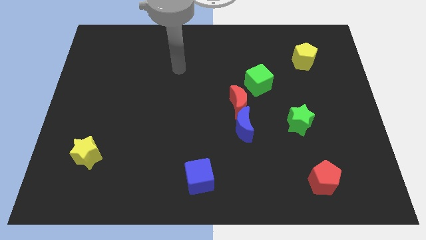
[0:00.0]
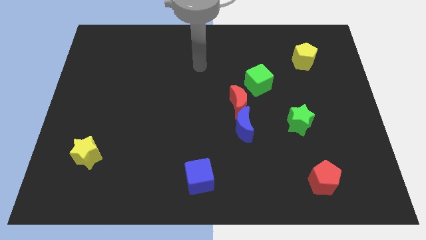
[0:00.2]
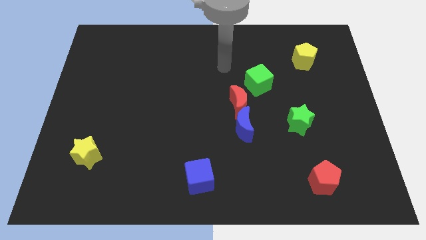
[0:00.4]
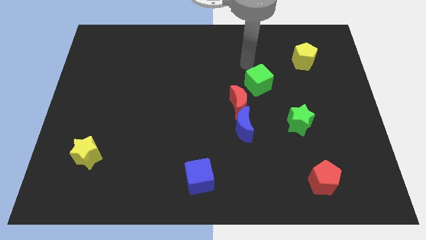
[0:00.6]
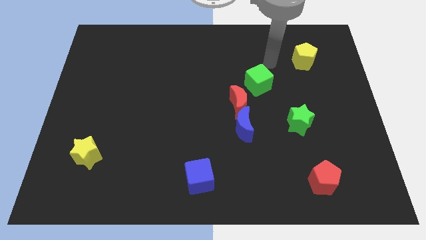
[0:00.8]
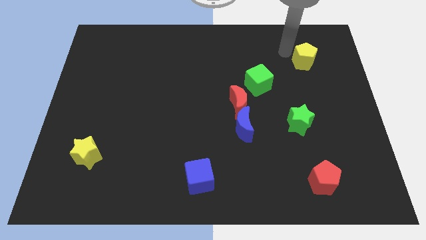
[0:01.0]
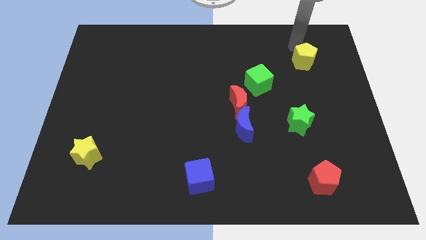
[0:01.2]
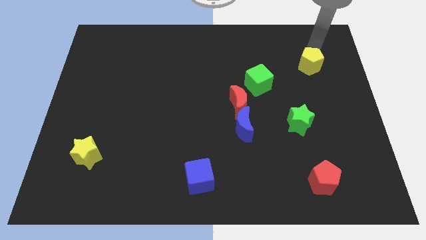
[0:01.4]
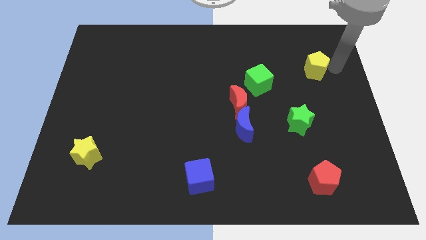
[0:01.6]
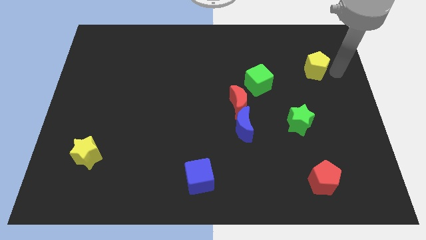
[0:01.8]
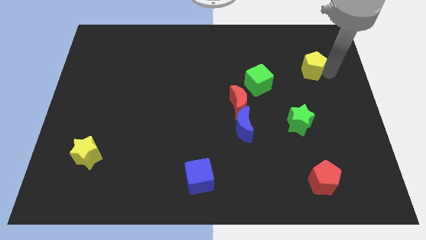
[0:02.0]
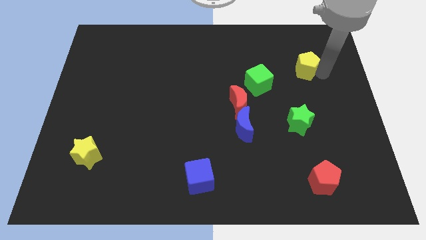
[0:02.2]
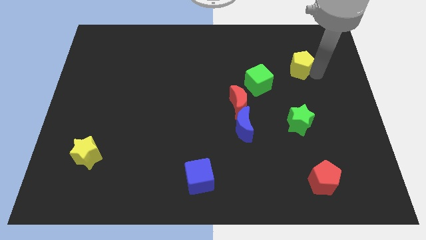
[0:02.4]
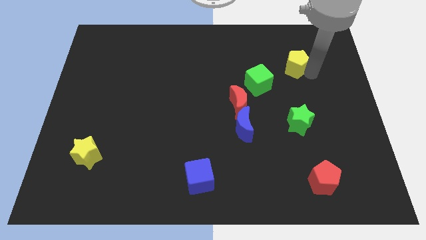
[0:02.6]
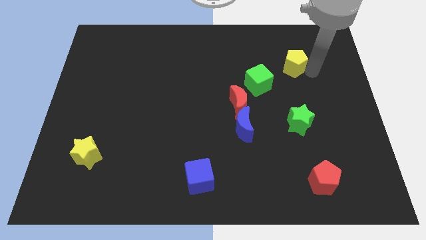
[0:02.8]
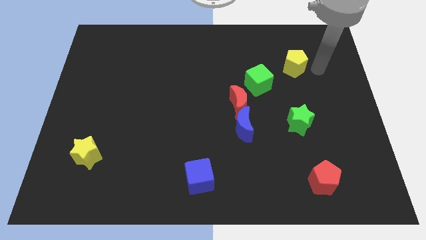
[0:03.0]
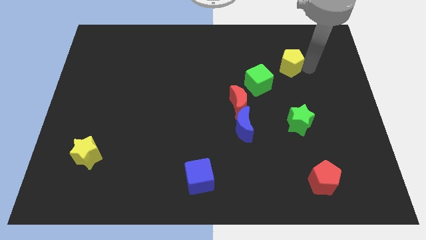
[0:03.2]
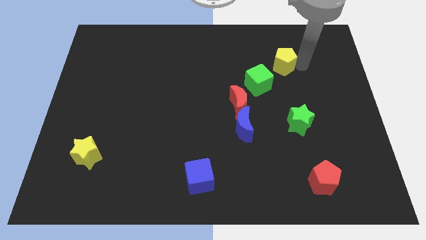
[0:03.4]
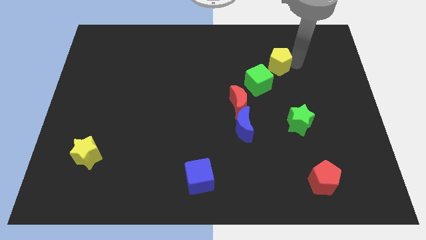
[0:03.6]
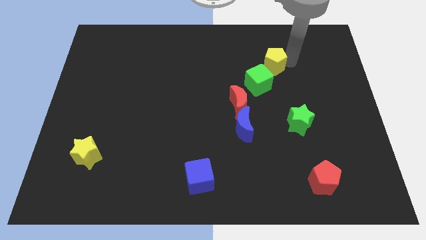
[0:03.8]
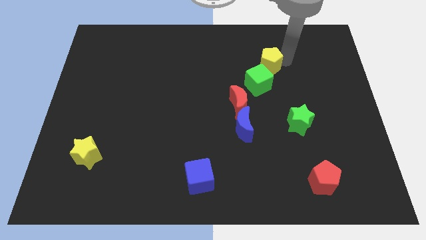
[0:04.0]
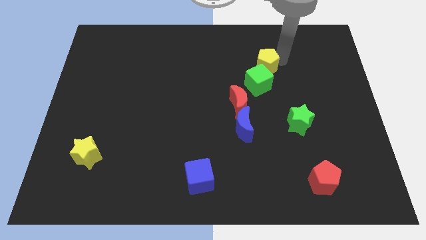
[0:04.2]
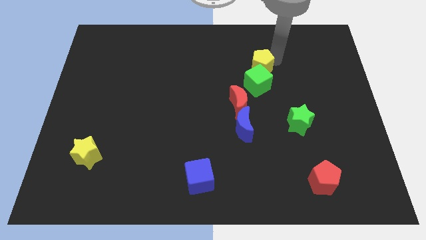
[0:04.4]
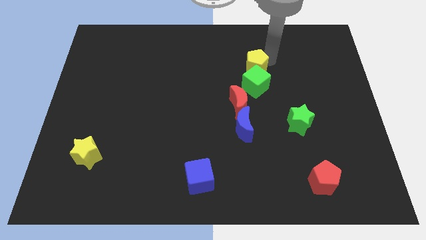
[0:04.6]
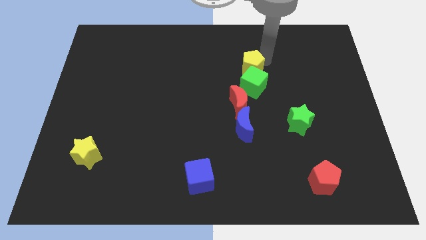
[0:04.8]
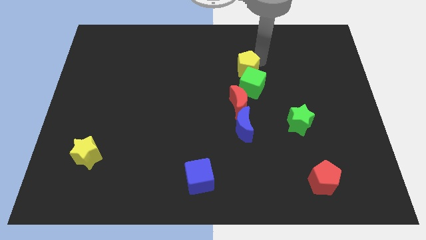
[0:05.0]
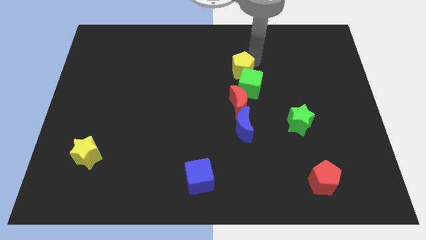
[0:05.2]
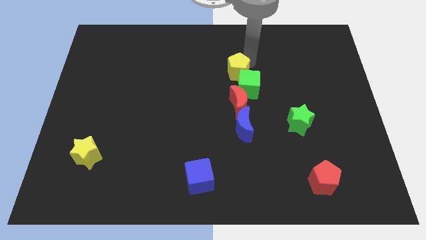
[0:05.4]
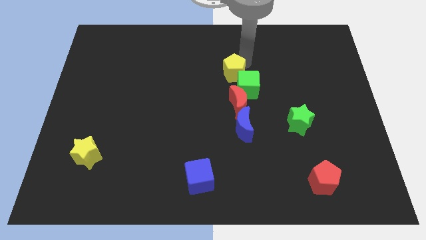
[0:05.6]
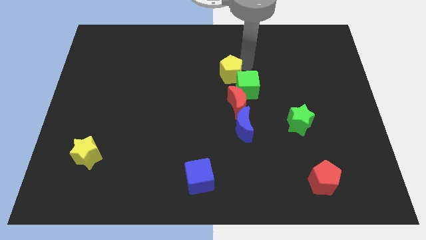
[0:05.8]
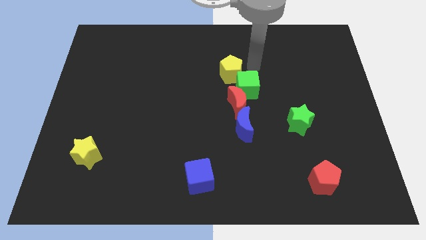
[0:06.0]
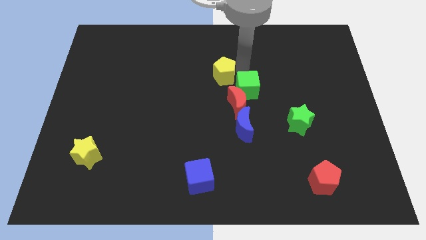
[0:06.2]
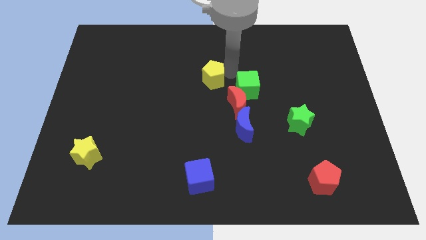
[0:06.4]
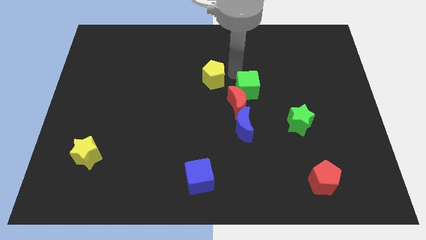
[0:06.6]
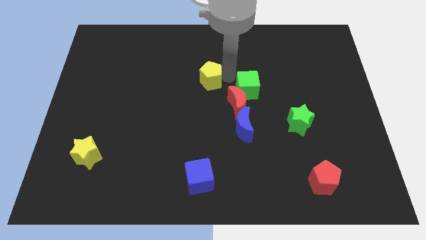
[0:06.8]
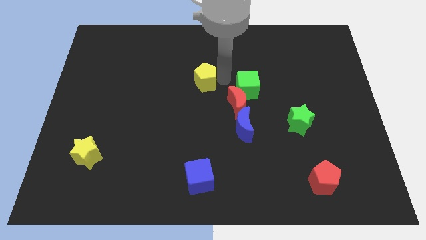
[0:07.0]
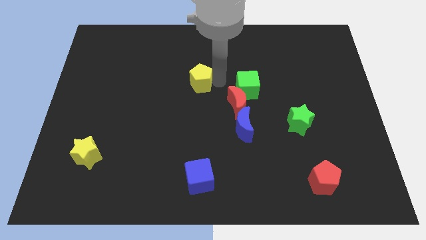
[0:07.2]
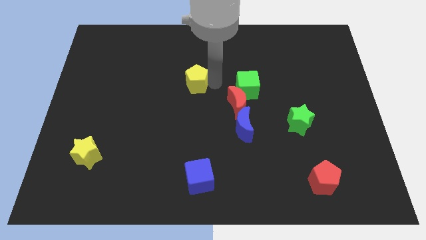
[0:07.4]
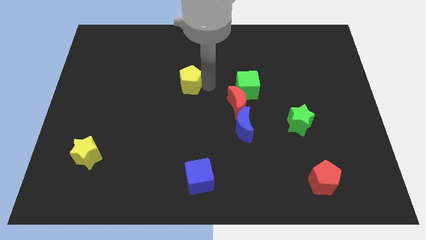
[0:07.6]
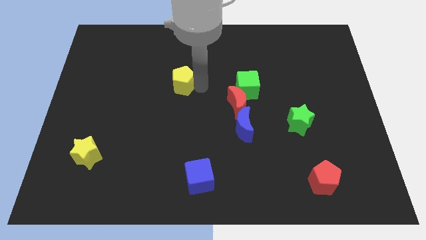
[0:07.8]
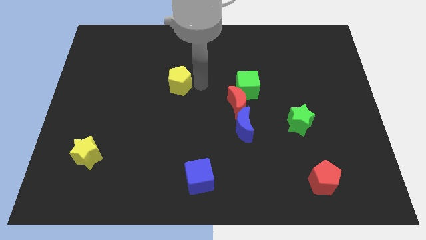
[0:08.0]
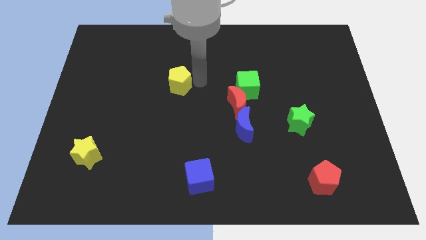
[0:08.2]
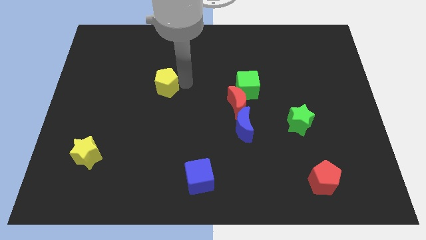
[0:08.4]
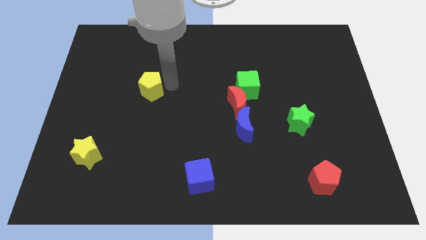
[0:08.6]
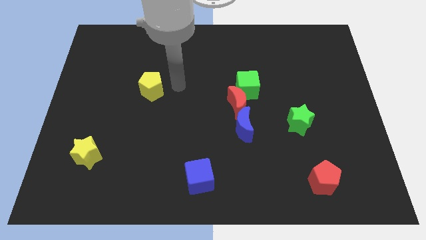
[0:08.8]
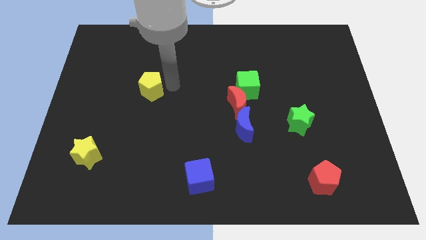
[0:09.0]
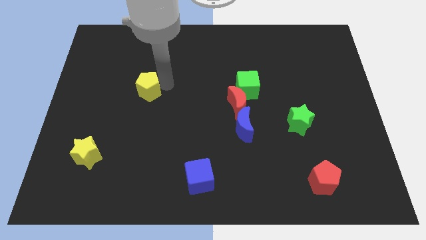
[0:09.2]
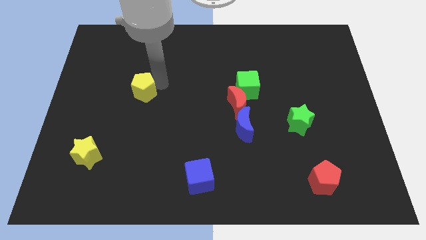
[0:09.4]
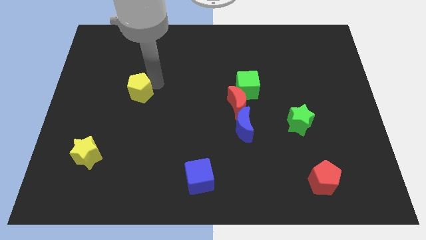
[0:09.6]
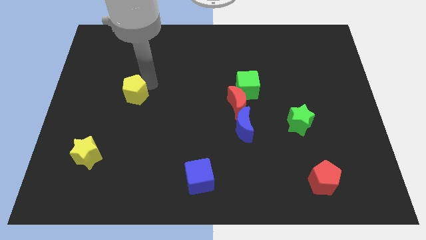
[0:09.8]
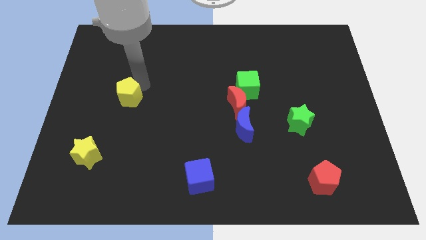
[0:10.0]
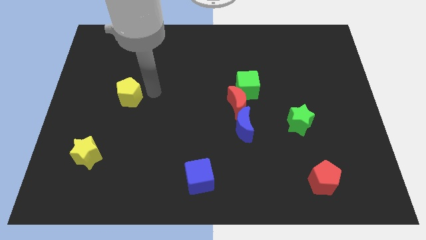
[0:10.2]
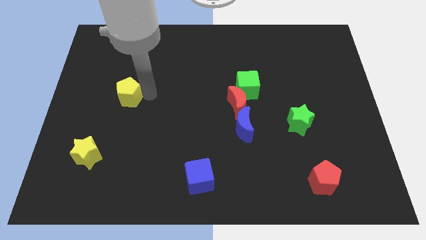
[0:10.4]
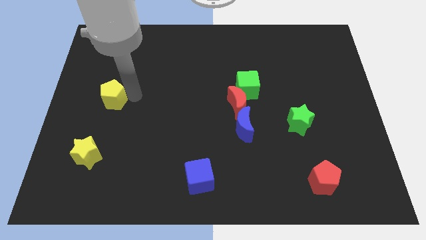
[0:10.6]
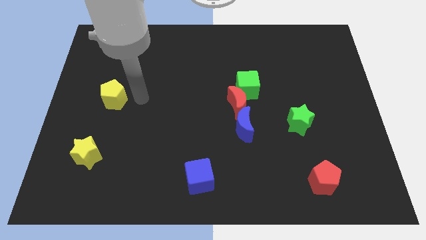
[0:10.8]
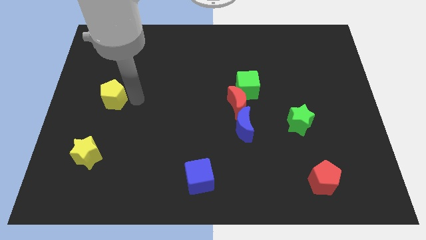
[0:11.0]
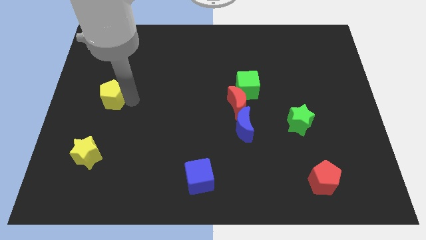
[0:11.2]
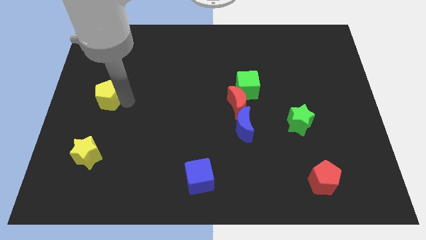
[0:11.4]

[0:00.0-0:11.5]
put the yellow pentagon to the center left

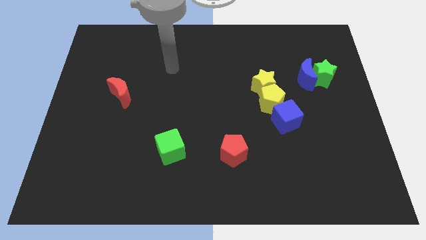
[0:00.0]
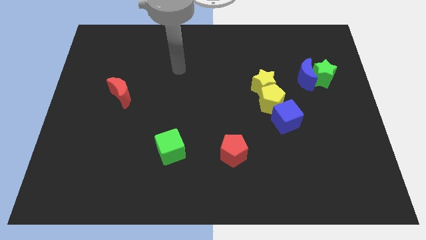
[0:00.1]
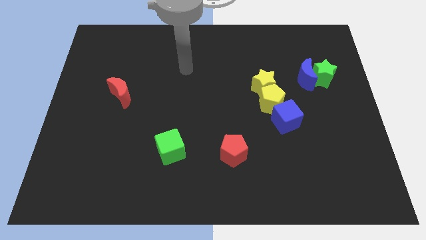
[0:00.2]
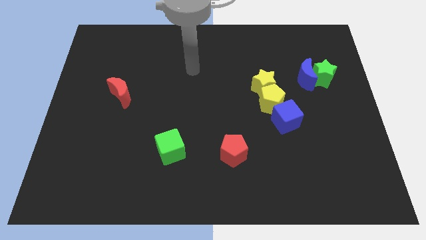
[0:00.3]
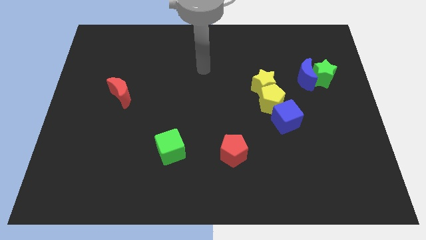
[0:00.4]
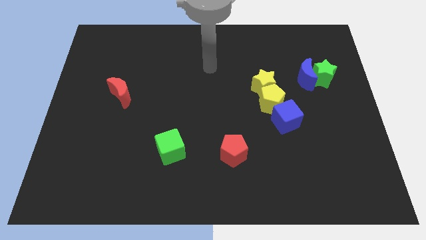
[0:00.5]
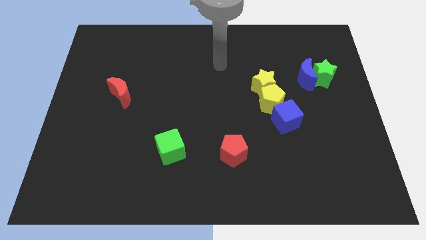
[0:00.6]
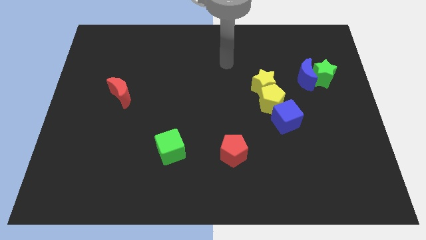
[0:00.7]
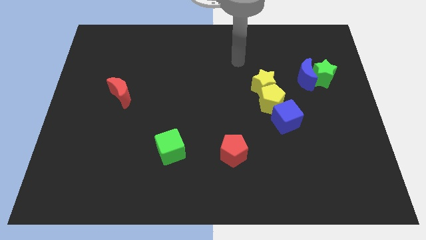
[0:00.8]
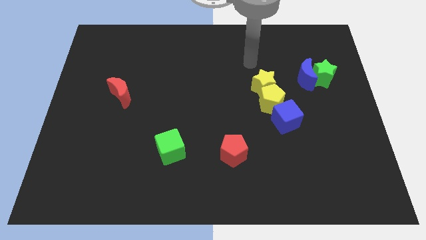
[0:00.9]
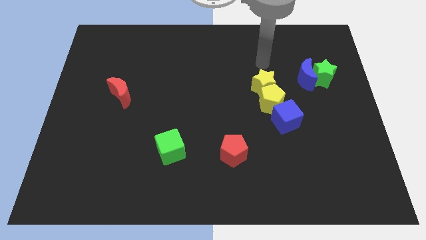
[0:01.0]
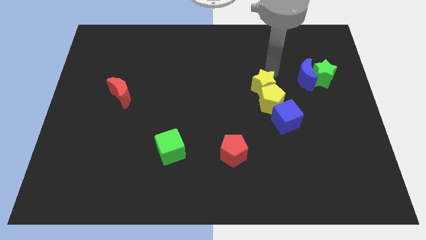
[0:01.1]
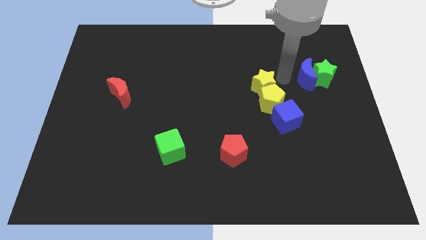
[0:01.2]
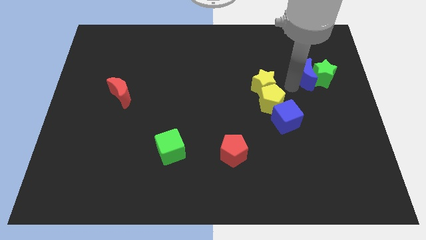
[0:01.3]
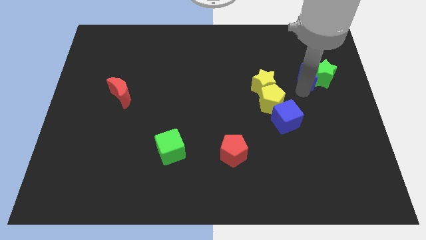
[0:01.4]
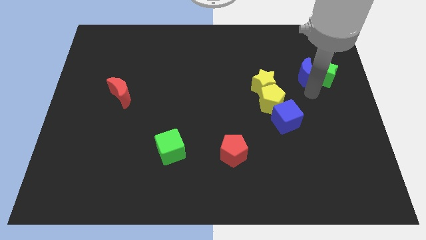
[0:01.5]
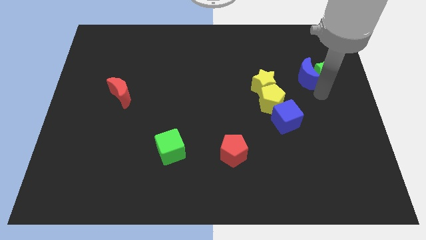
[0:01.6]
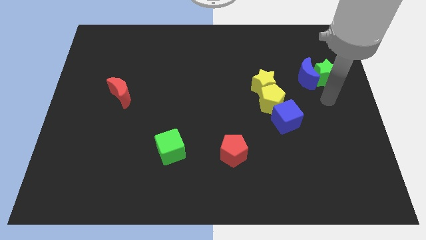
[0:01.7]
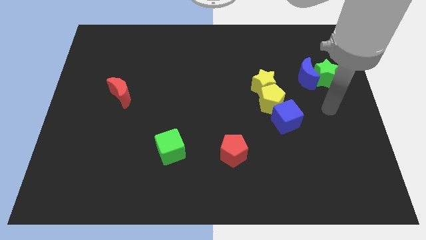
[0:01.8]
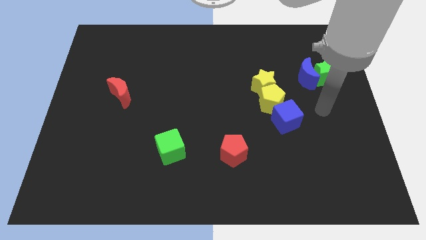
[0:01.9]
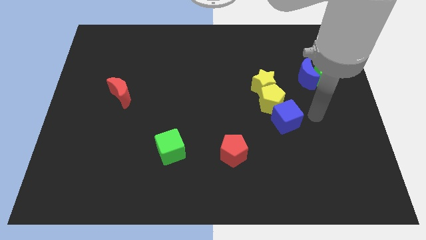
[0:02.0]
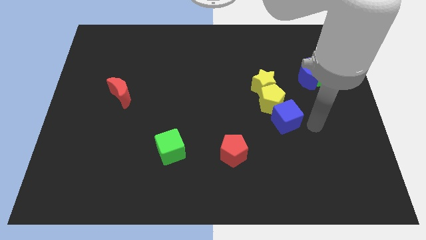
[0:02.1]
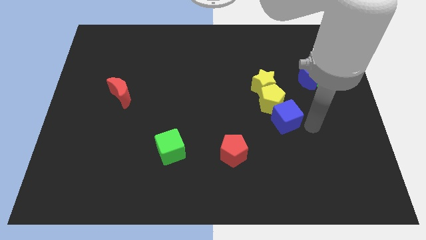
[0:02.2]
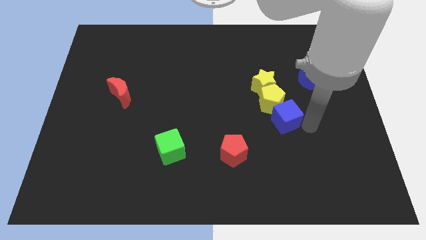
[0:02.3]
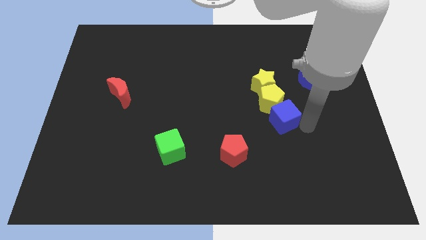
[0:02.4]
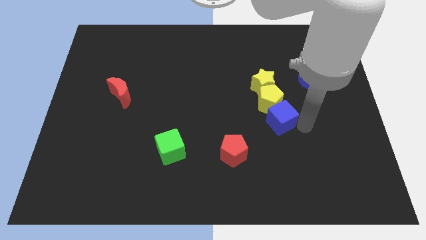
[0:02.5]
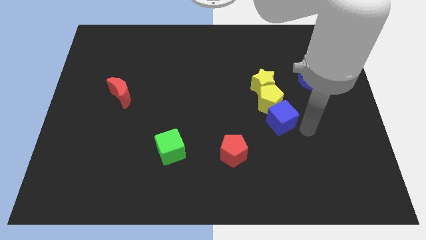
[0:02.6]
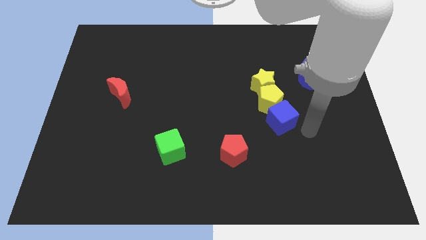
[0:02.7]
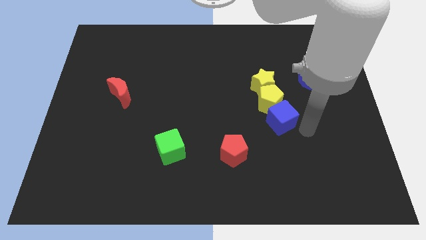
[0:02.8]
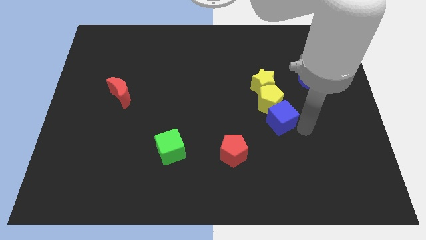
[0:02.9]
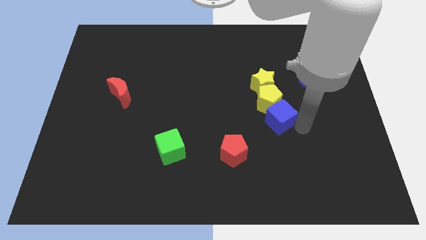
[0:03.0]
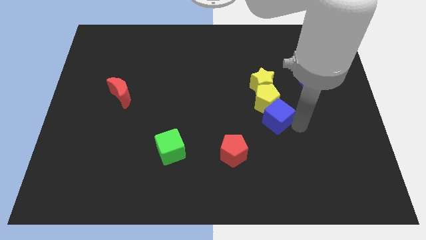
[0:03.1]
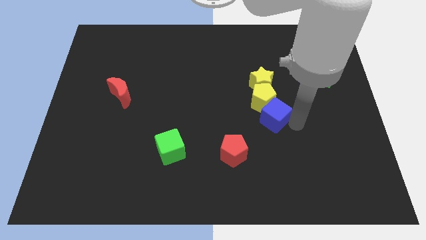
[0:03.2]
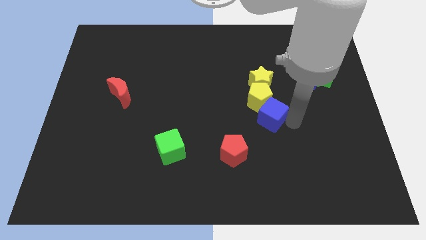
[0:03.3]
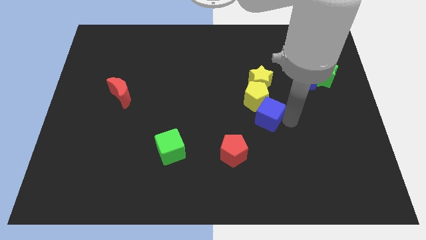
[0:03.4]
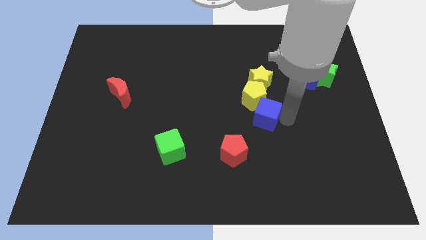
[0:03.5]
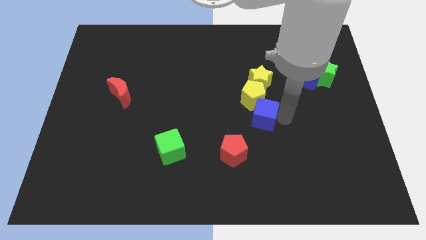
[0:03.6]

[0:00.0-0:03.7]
put the blue cube to the center of the board
